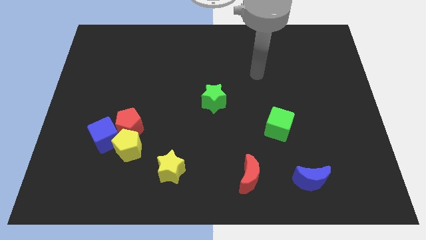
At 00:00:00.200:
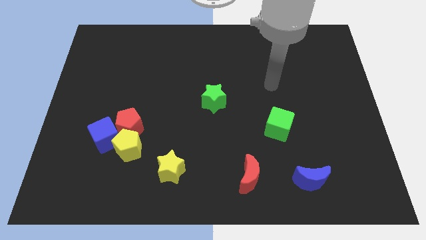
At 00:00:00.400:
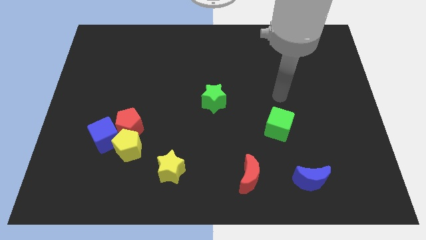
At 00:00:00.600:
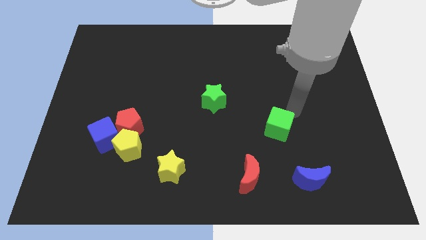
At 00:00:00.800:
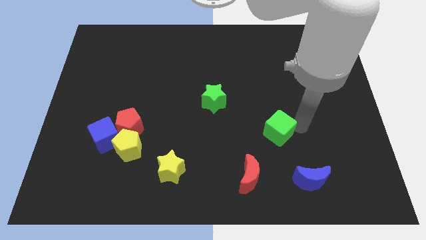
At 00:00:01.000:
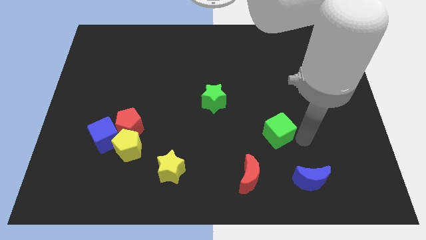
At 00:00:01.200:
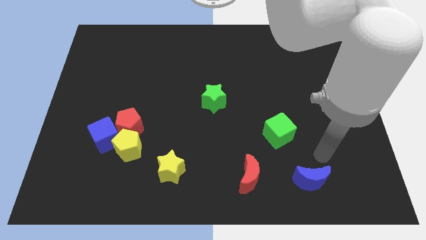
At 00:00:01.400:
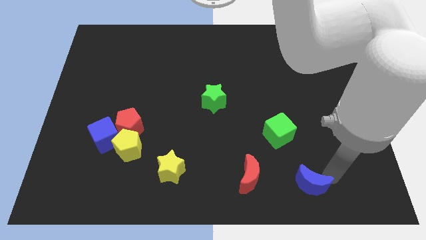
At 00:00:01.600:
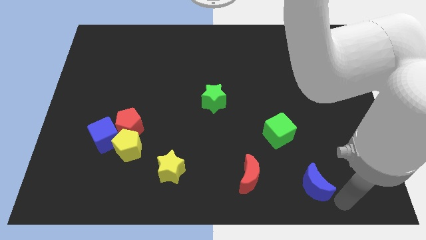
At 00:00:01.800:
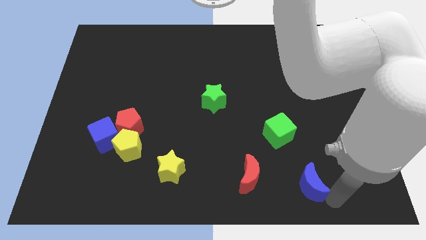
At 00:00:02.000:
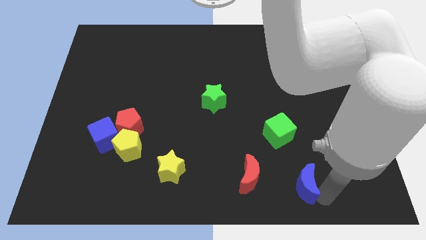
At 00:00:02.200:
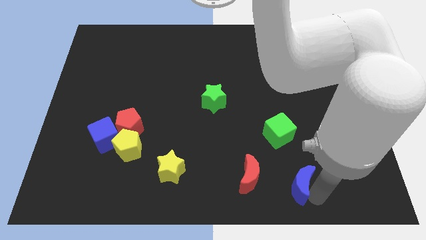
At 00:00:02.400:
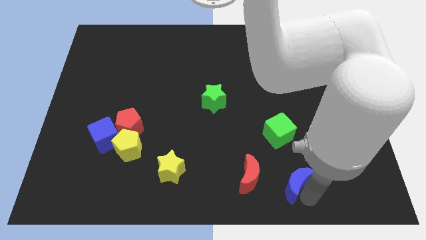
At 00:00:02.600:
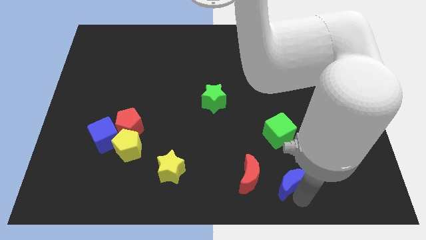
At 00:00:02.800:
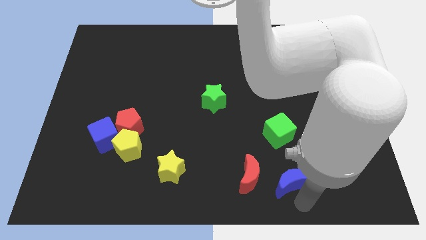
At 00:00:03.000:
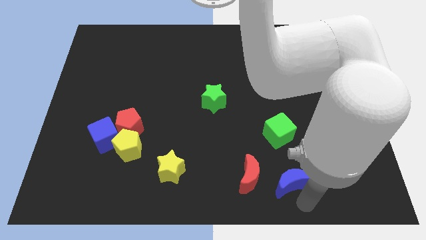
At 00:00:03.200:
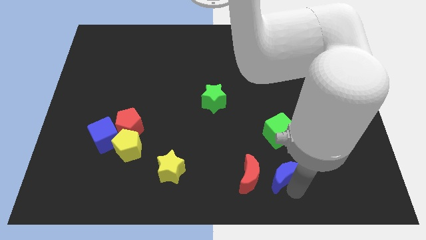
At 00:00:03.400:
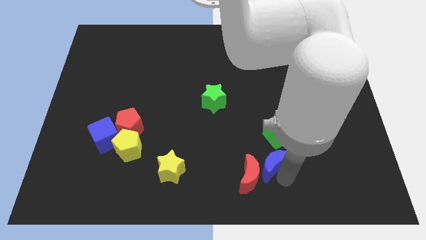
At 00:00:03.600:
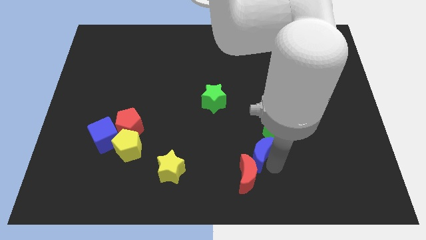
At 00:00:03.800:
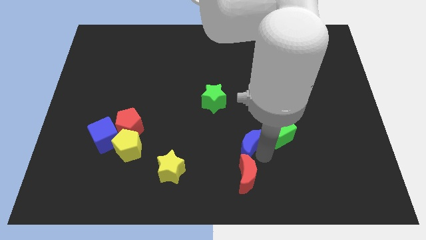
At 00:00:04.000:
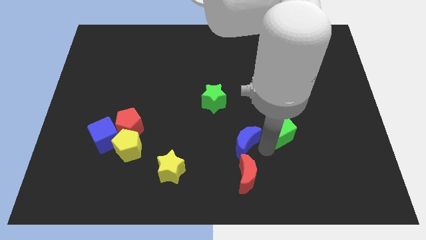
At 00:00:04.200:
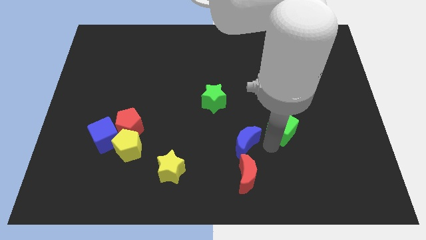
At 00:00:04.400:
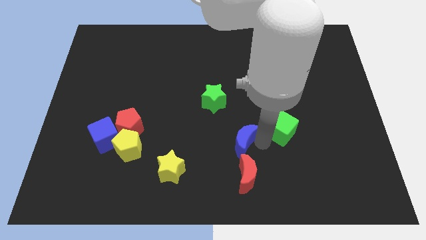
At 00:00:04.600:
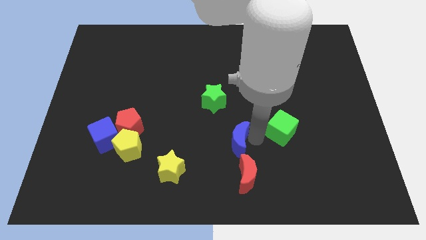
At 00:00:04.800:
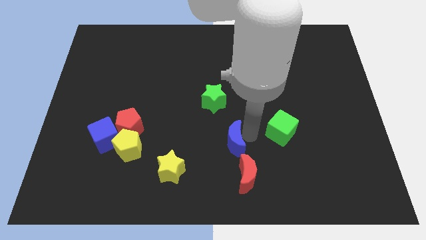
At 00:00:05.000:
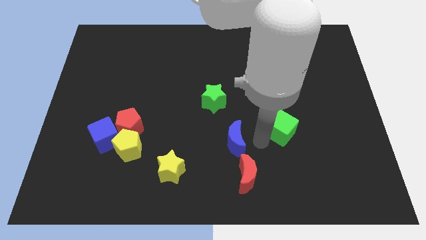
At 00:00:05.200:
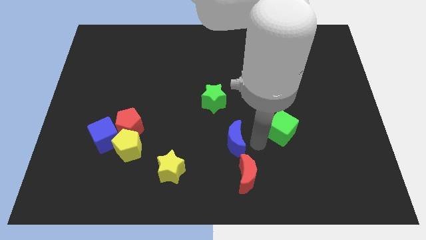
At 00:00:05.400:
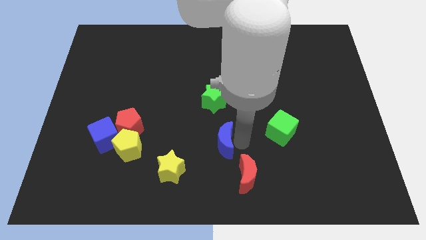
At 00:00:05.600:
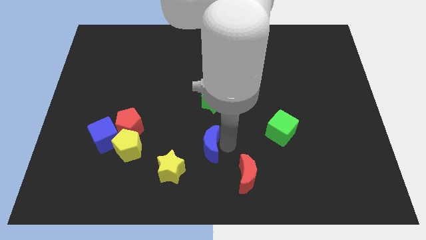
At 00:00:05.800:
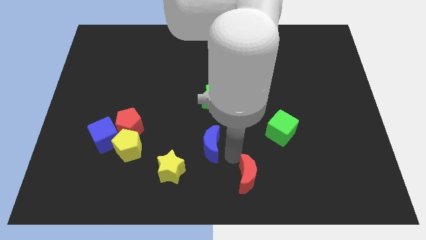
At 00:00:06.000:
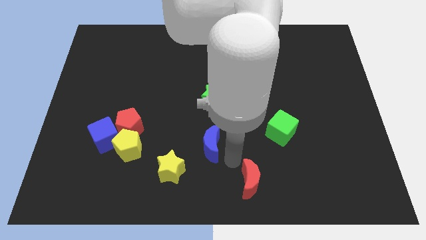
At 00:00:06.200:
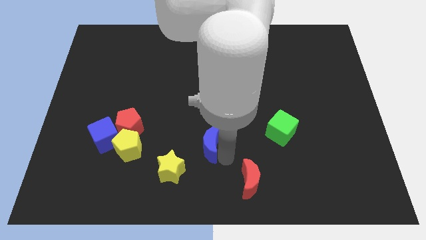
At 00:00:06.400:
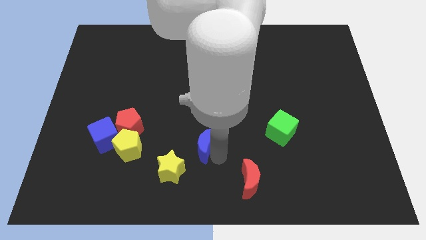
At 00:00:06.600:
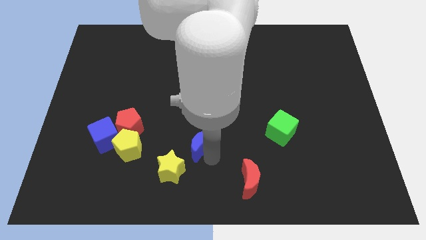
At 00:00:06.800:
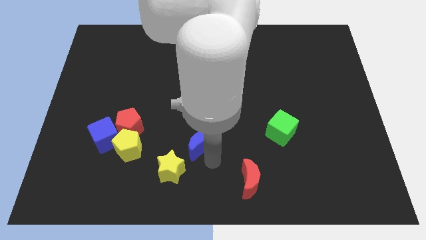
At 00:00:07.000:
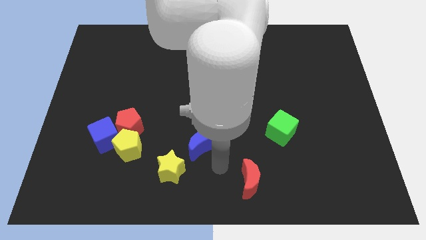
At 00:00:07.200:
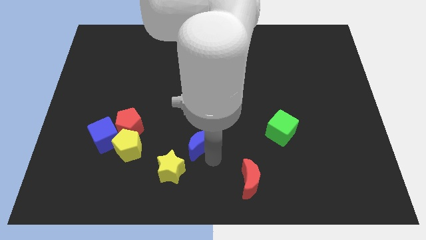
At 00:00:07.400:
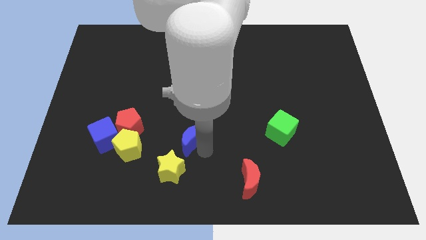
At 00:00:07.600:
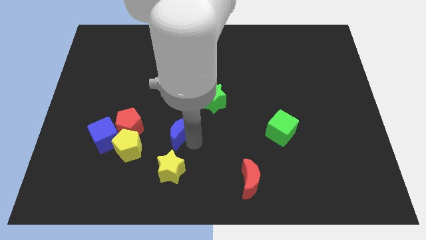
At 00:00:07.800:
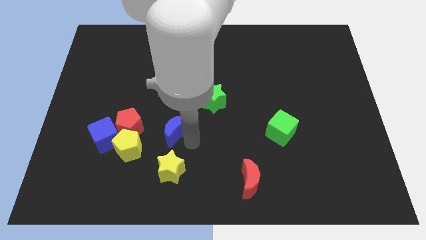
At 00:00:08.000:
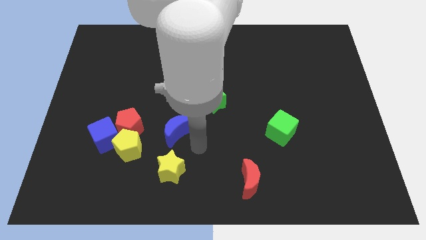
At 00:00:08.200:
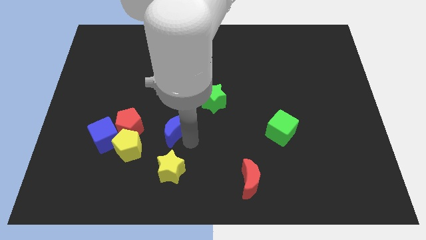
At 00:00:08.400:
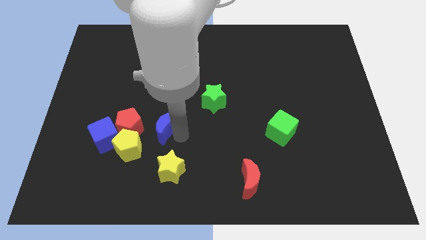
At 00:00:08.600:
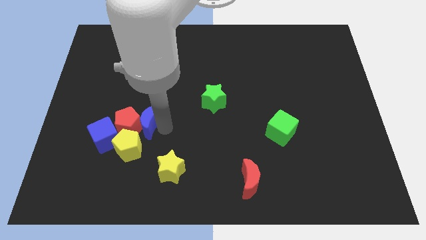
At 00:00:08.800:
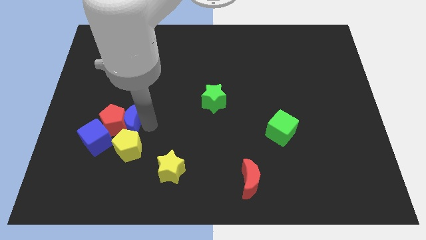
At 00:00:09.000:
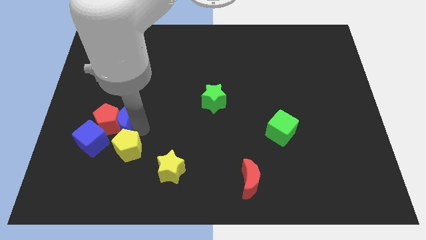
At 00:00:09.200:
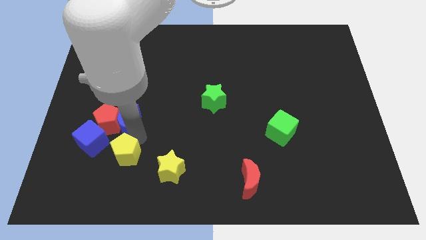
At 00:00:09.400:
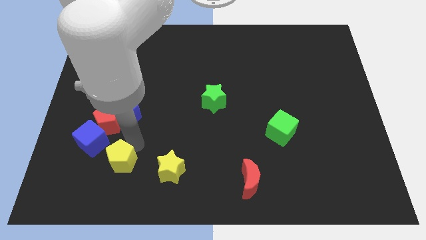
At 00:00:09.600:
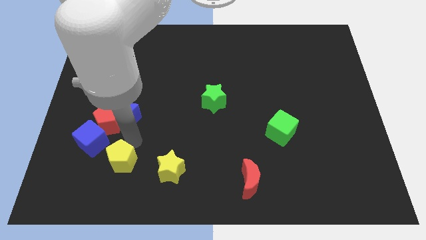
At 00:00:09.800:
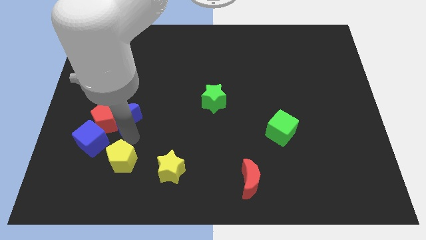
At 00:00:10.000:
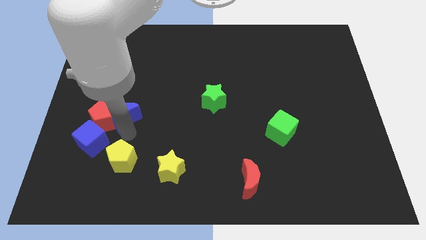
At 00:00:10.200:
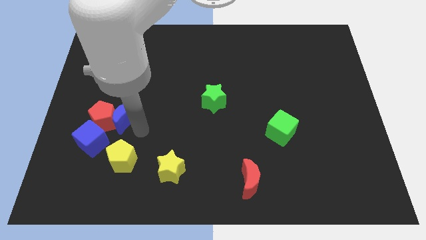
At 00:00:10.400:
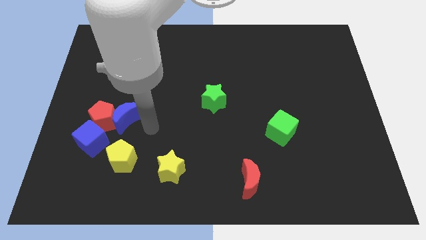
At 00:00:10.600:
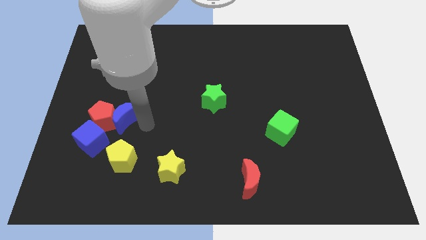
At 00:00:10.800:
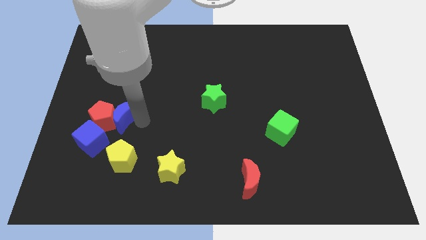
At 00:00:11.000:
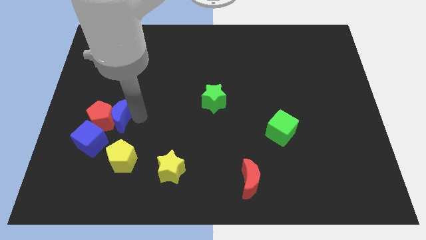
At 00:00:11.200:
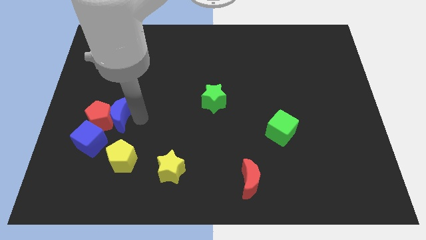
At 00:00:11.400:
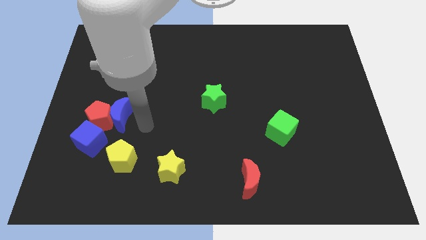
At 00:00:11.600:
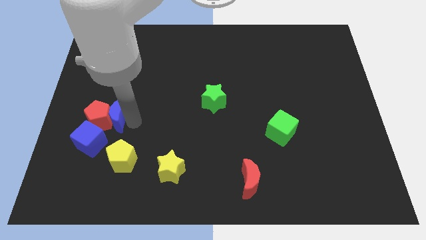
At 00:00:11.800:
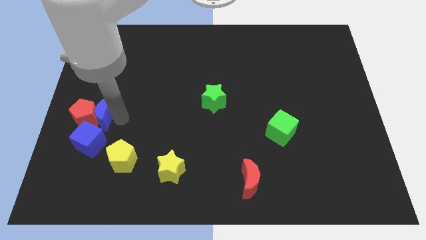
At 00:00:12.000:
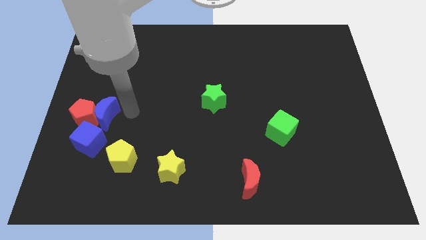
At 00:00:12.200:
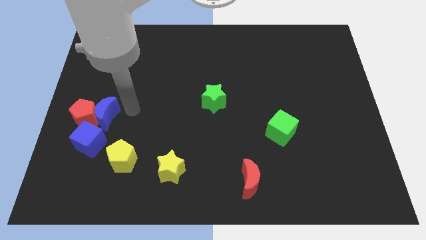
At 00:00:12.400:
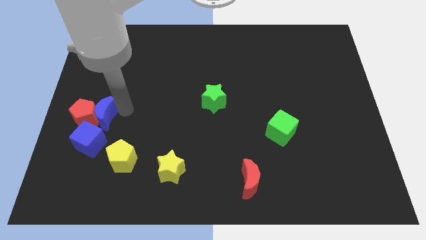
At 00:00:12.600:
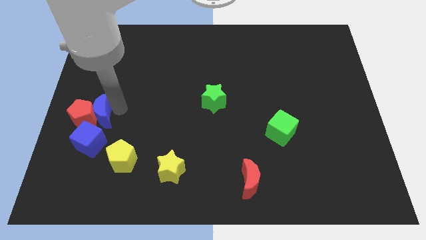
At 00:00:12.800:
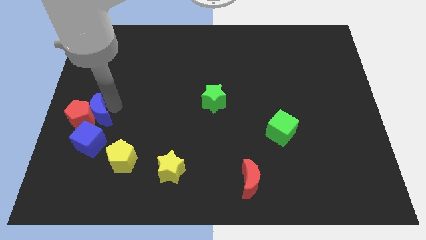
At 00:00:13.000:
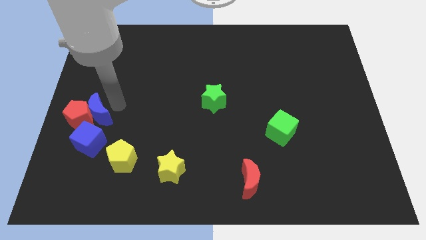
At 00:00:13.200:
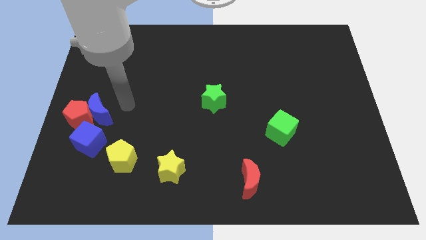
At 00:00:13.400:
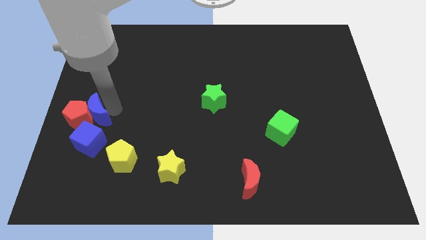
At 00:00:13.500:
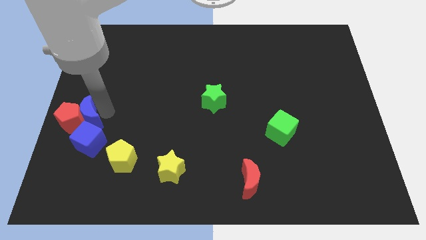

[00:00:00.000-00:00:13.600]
put the blue moon diagonally up and to the left of the blue cube
